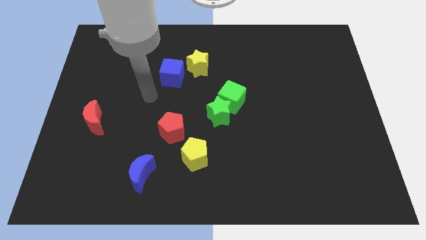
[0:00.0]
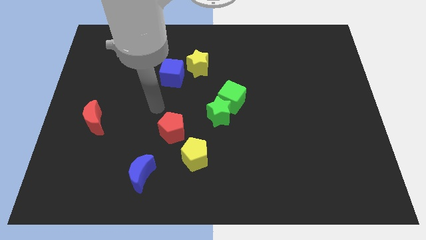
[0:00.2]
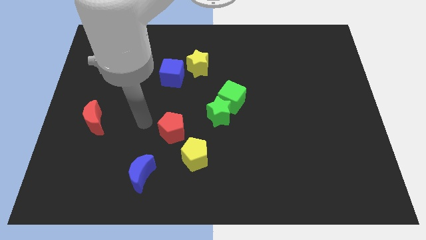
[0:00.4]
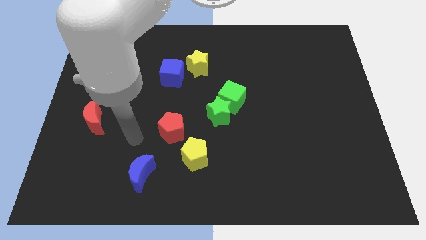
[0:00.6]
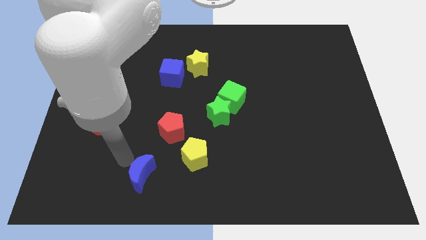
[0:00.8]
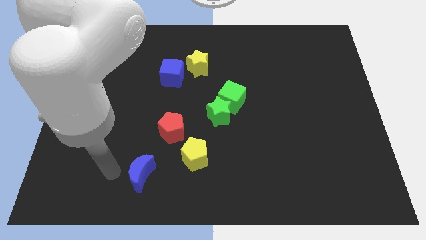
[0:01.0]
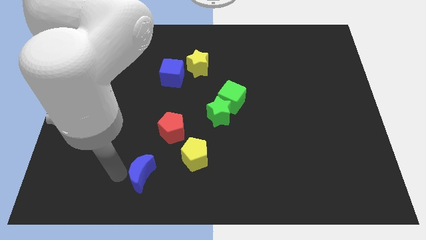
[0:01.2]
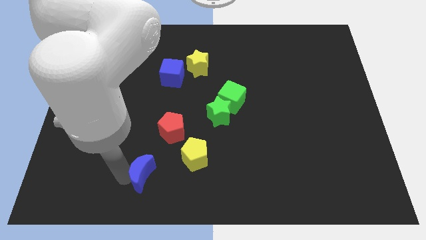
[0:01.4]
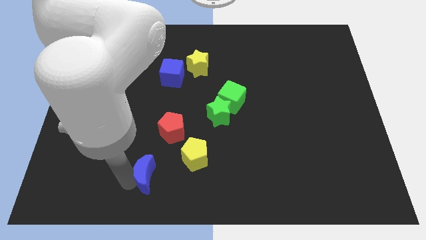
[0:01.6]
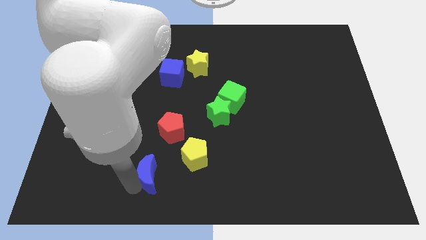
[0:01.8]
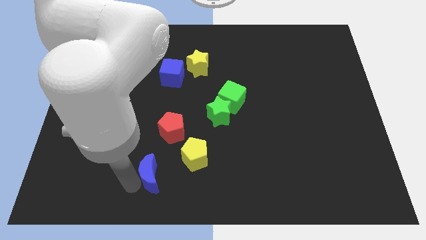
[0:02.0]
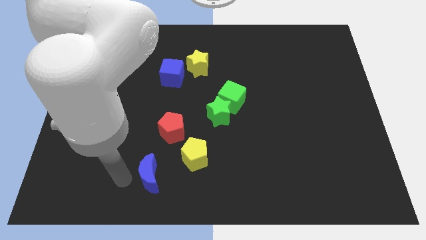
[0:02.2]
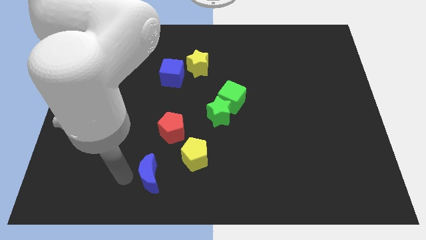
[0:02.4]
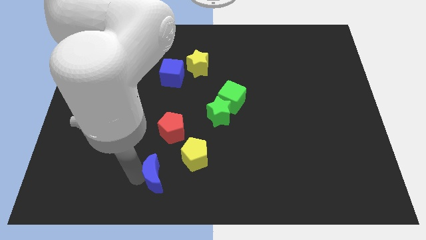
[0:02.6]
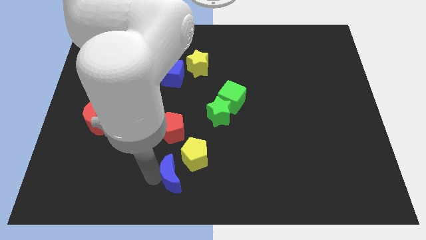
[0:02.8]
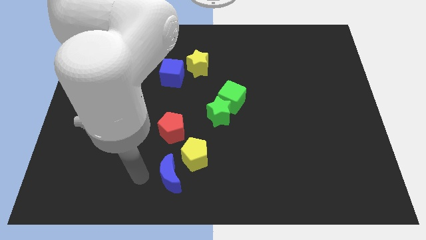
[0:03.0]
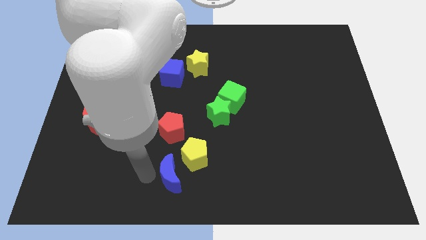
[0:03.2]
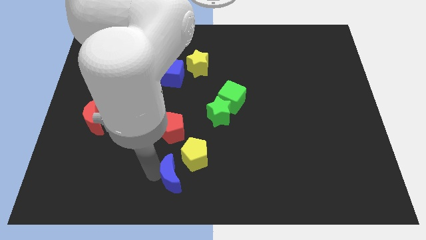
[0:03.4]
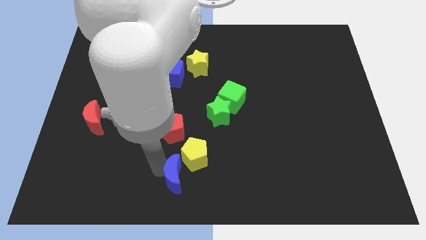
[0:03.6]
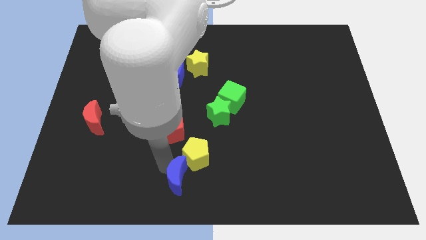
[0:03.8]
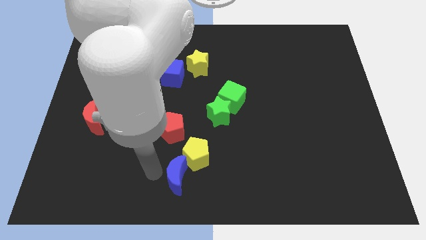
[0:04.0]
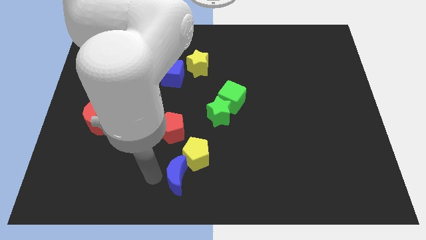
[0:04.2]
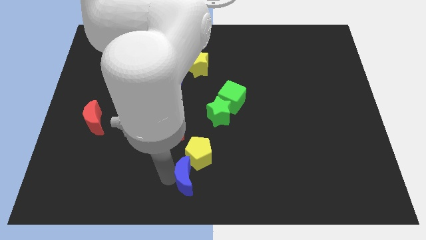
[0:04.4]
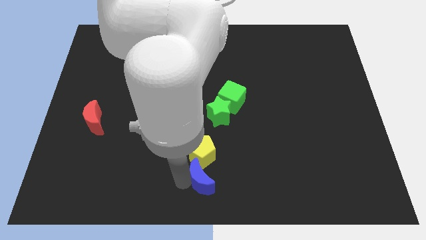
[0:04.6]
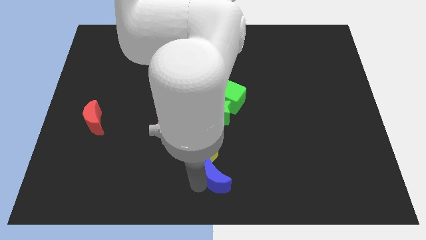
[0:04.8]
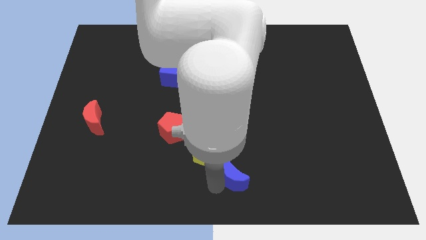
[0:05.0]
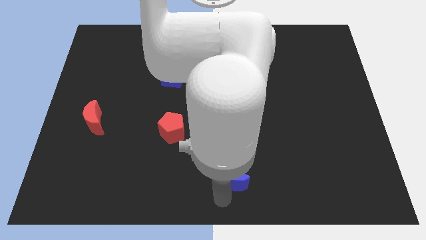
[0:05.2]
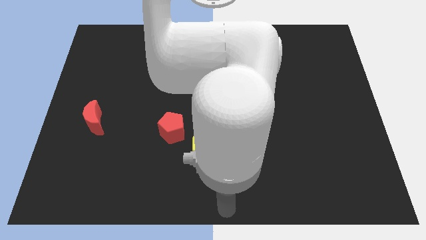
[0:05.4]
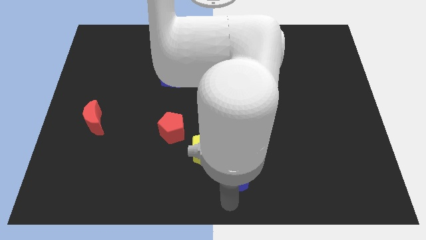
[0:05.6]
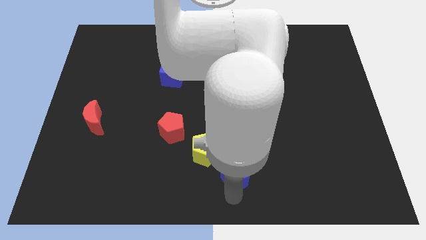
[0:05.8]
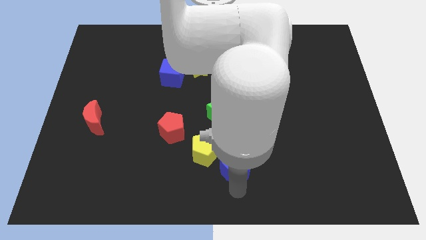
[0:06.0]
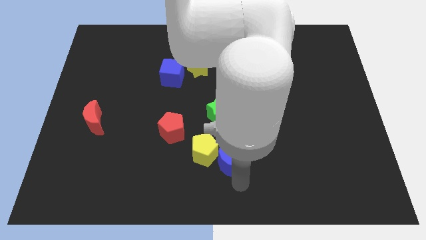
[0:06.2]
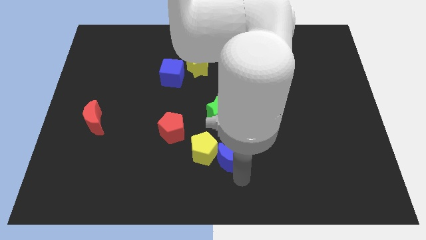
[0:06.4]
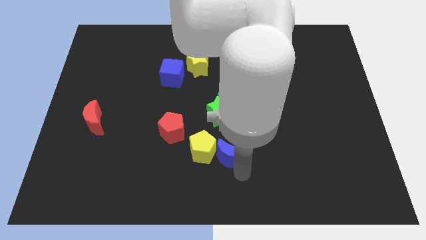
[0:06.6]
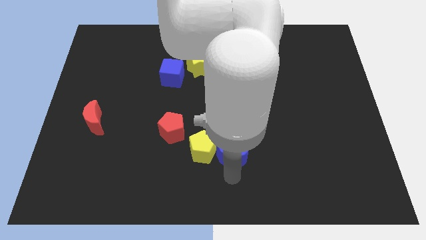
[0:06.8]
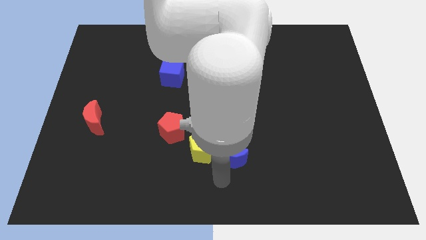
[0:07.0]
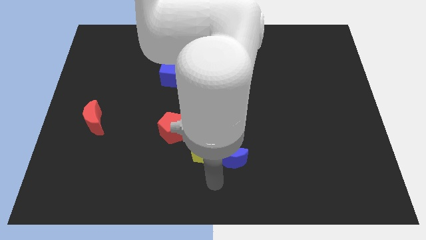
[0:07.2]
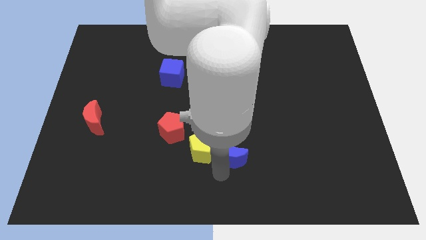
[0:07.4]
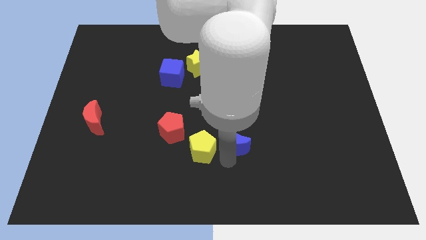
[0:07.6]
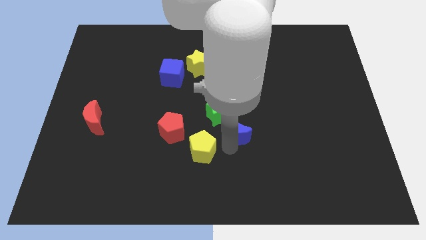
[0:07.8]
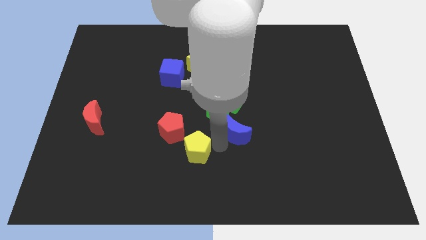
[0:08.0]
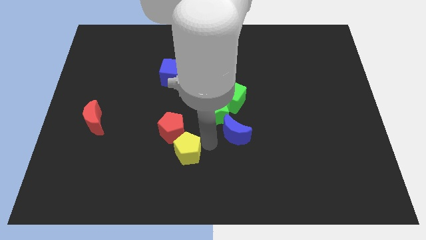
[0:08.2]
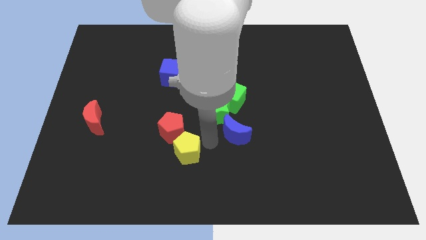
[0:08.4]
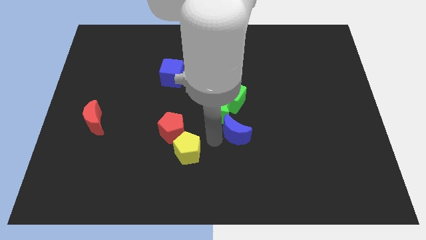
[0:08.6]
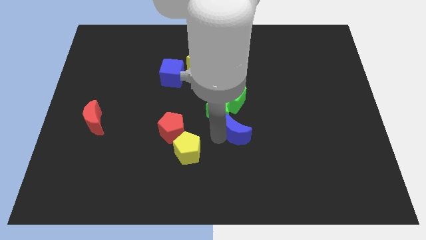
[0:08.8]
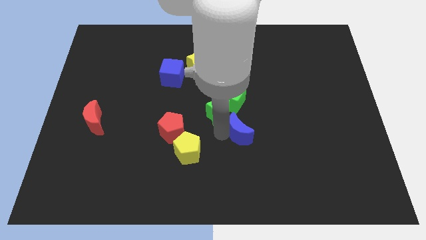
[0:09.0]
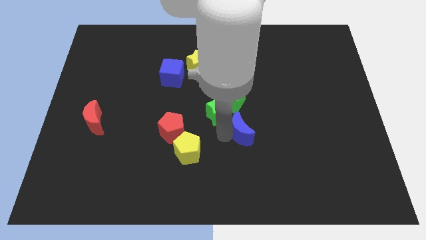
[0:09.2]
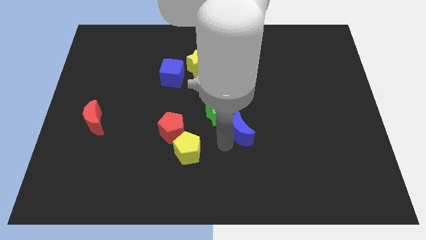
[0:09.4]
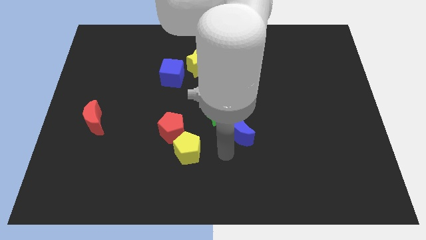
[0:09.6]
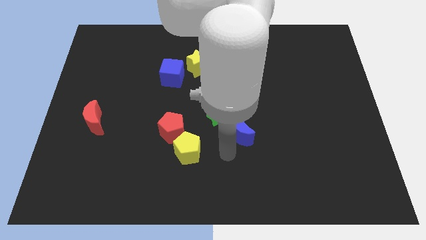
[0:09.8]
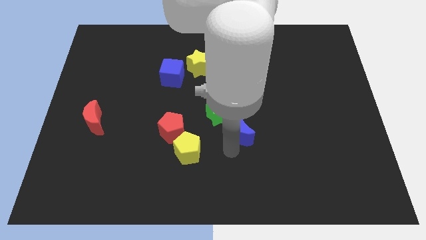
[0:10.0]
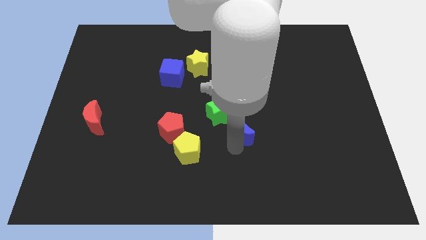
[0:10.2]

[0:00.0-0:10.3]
slide the blue moon up and to the right

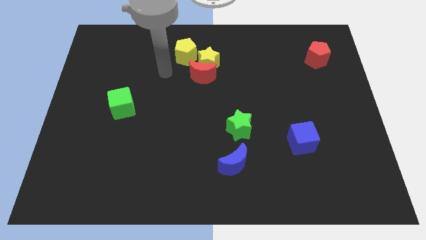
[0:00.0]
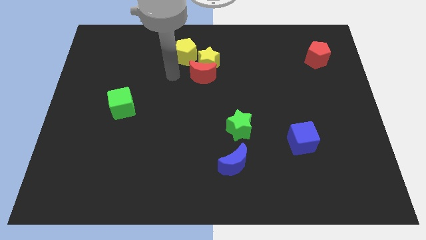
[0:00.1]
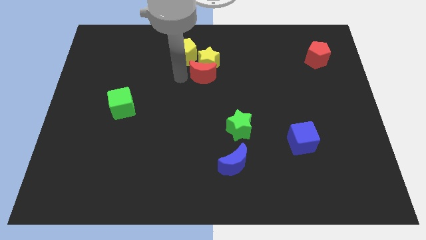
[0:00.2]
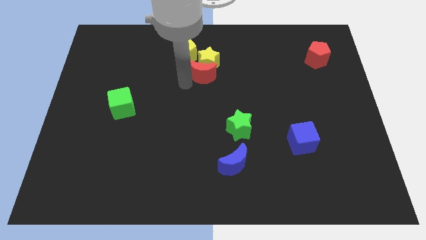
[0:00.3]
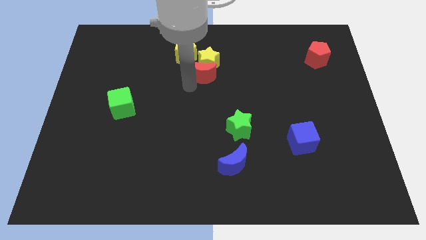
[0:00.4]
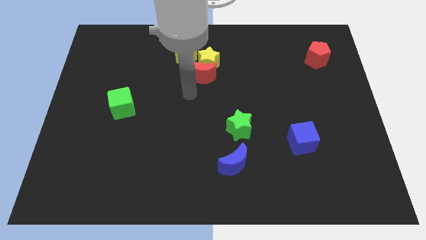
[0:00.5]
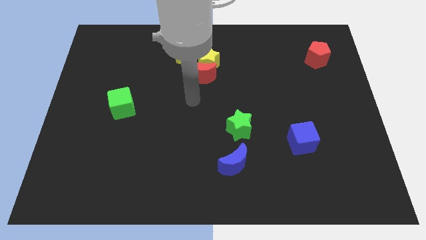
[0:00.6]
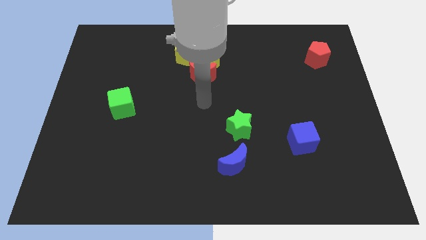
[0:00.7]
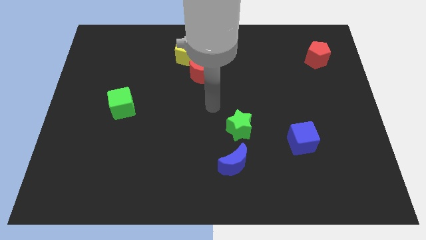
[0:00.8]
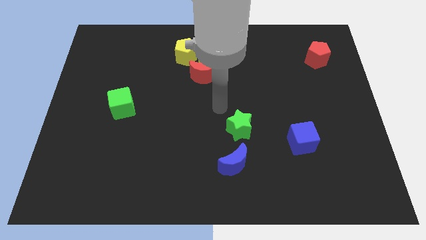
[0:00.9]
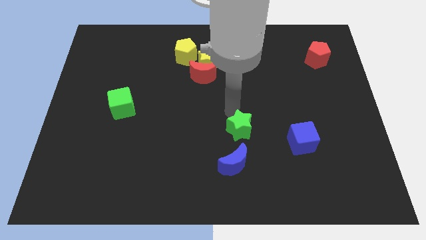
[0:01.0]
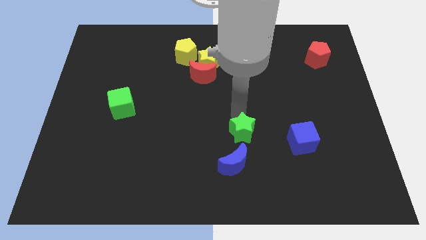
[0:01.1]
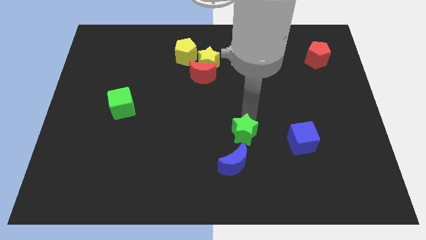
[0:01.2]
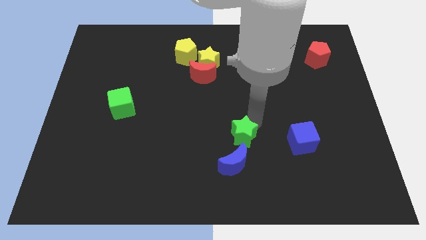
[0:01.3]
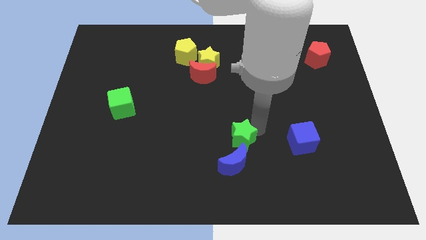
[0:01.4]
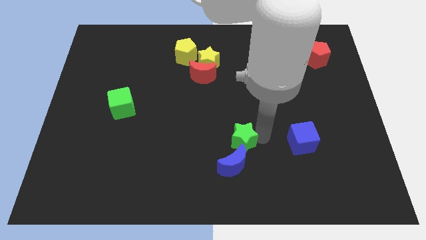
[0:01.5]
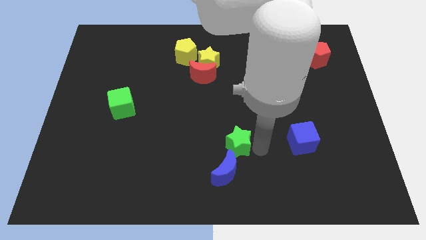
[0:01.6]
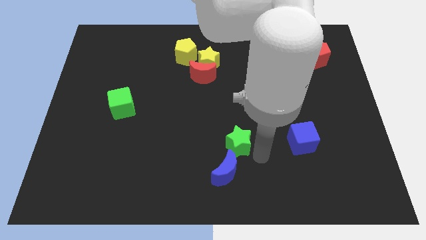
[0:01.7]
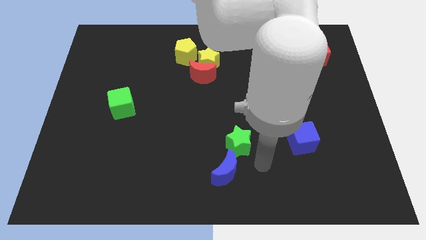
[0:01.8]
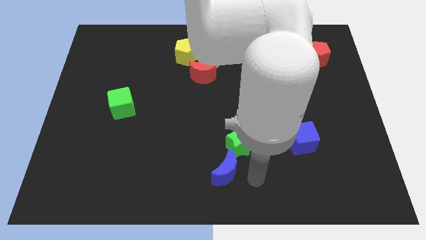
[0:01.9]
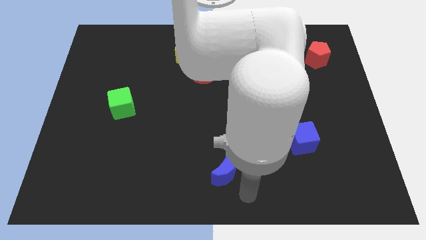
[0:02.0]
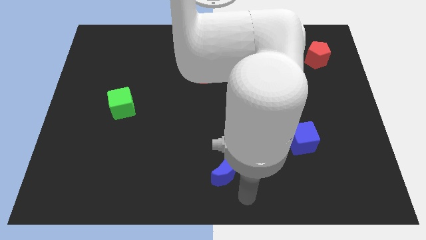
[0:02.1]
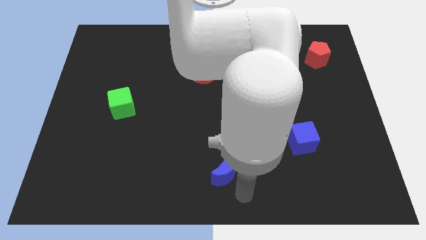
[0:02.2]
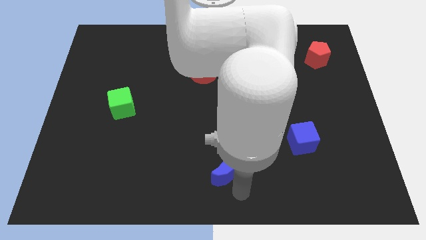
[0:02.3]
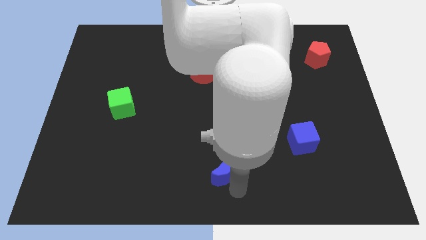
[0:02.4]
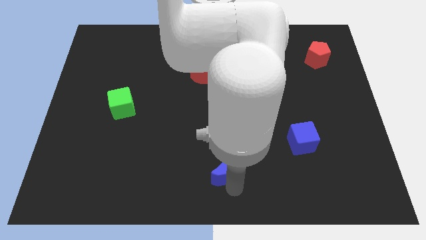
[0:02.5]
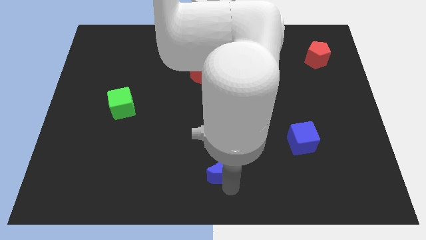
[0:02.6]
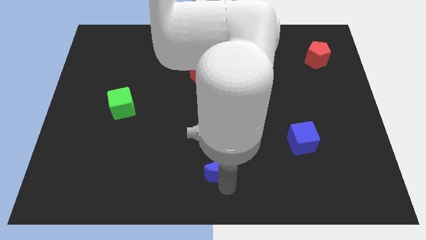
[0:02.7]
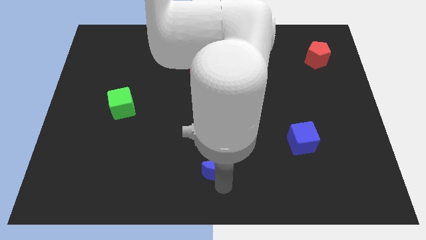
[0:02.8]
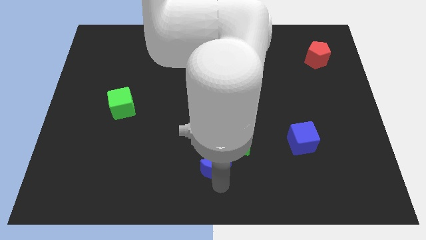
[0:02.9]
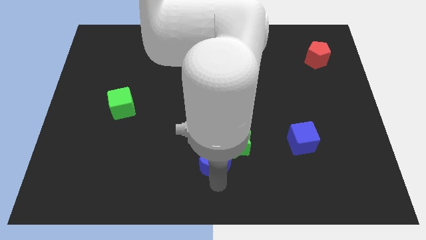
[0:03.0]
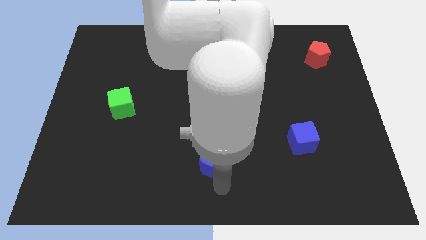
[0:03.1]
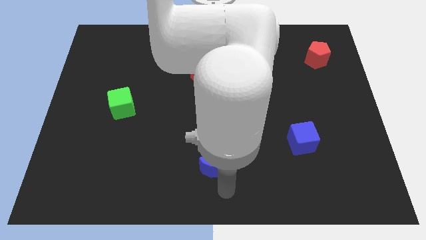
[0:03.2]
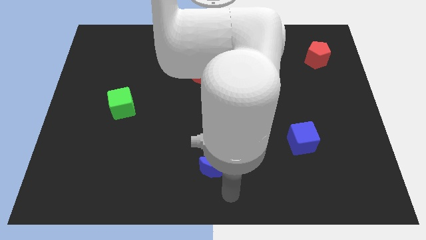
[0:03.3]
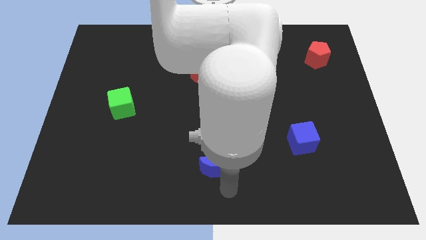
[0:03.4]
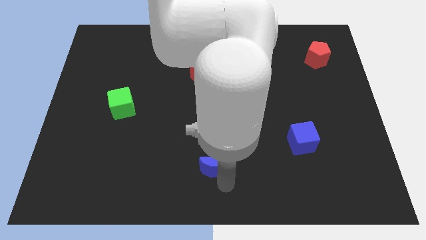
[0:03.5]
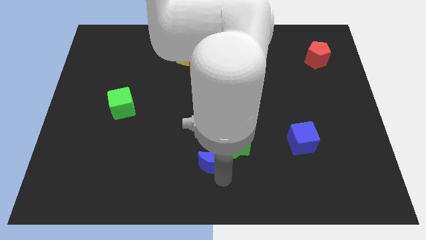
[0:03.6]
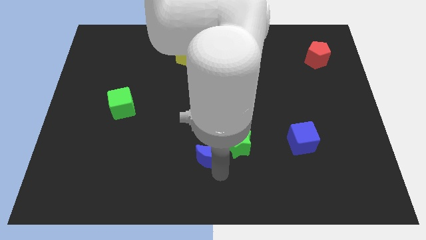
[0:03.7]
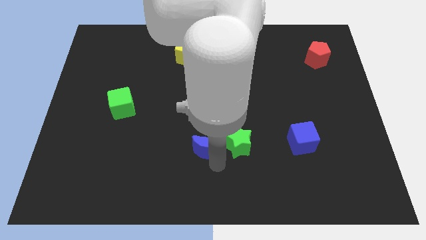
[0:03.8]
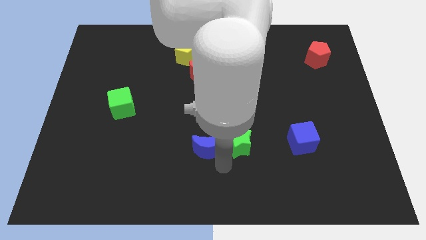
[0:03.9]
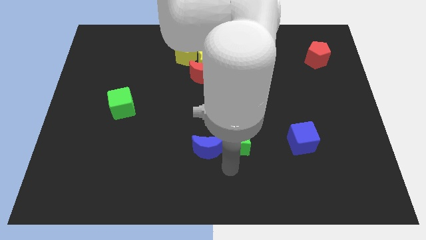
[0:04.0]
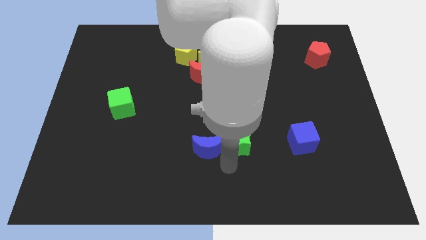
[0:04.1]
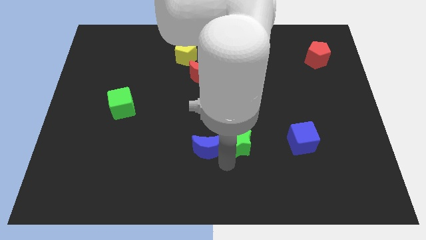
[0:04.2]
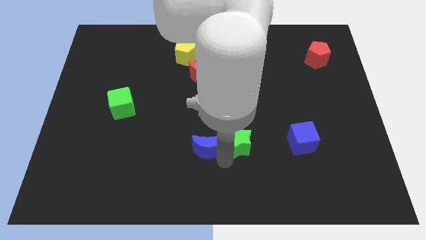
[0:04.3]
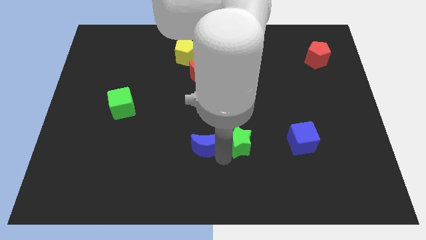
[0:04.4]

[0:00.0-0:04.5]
move the blue moon up and then to the left a little bit
